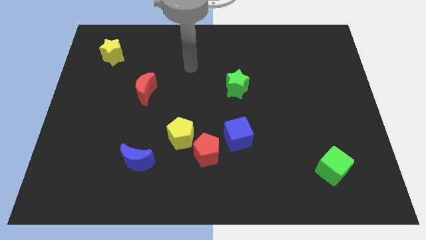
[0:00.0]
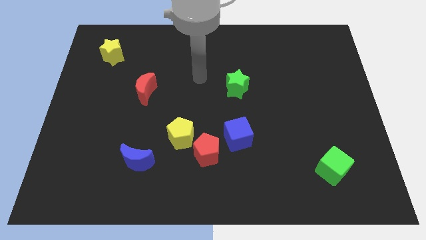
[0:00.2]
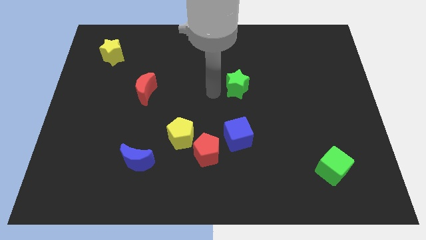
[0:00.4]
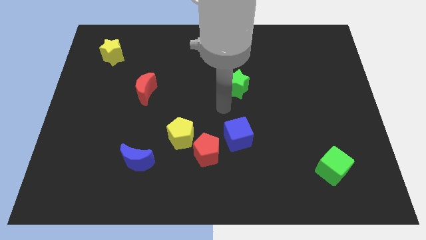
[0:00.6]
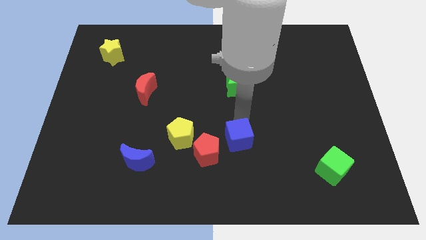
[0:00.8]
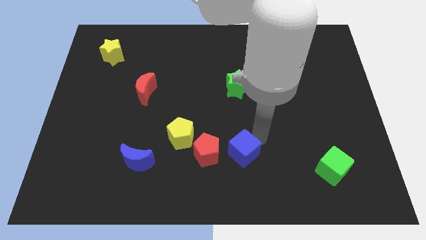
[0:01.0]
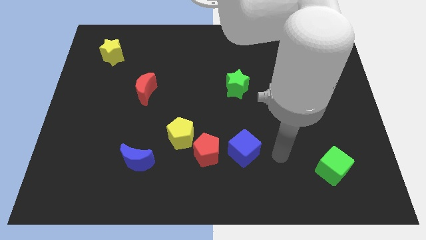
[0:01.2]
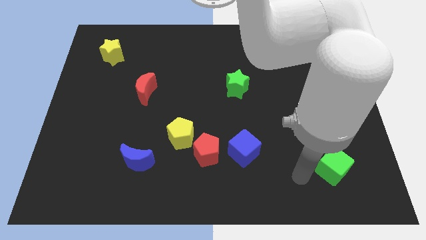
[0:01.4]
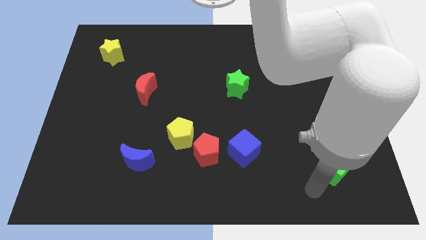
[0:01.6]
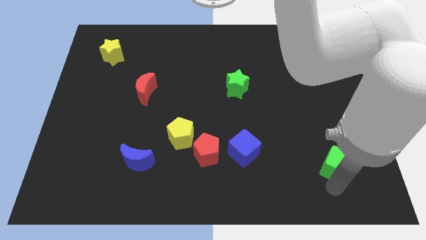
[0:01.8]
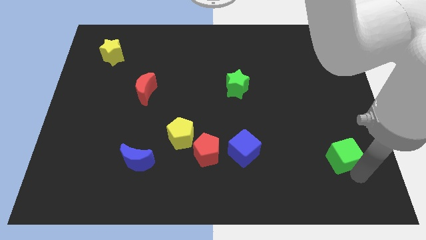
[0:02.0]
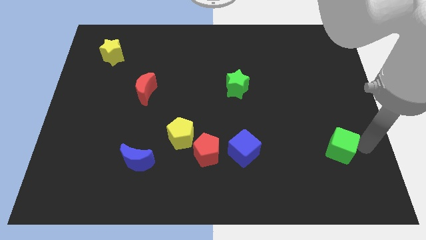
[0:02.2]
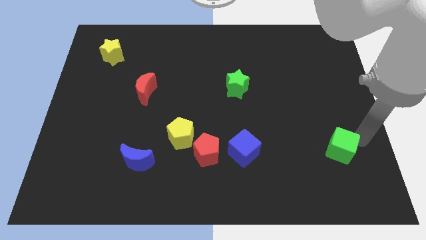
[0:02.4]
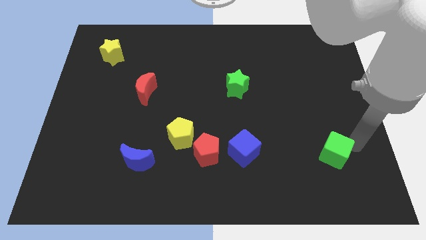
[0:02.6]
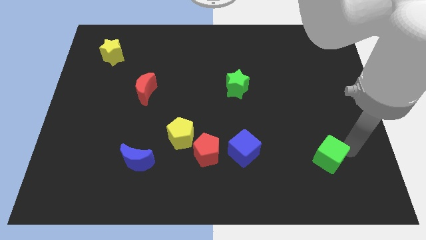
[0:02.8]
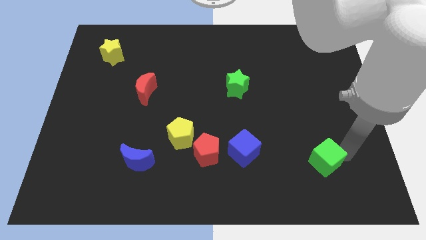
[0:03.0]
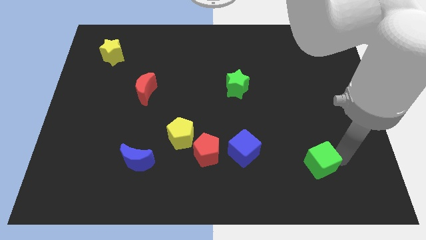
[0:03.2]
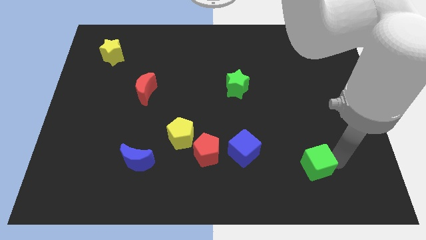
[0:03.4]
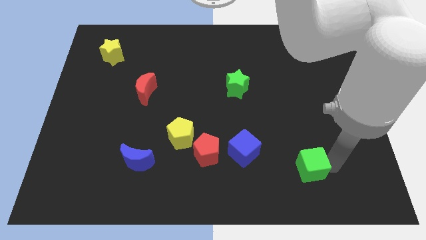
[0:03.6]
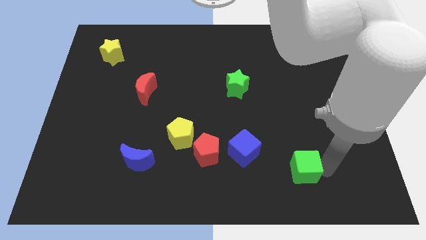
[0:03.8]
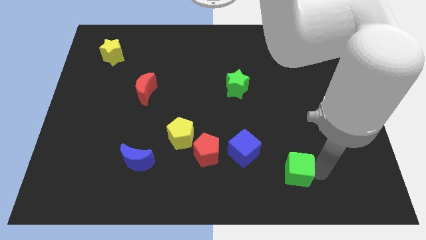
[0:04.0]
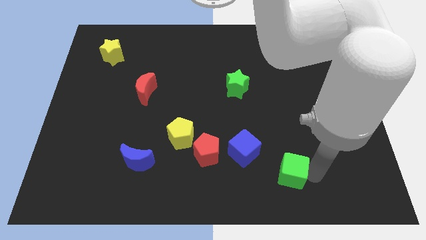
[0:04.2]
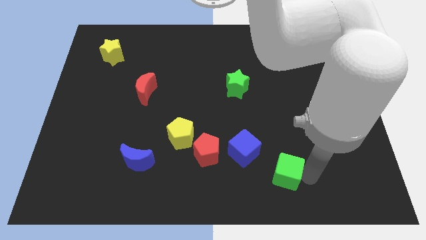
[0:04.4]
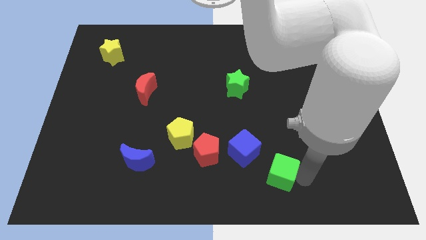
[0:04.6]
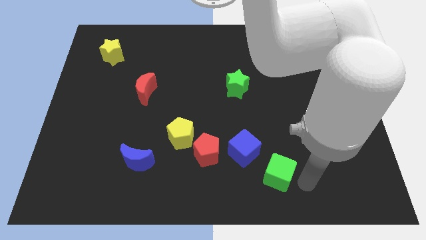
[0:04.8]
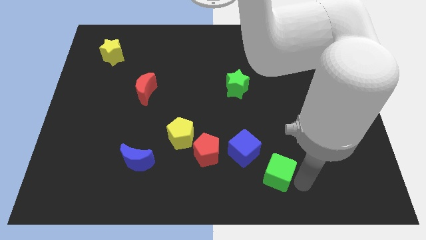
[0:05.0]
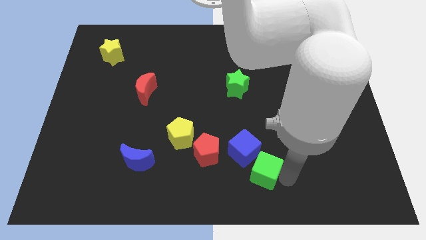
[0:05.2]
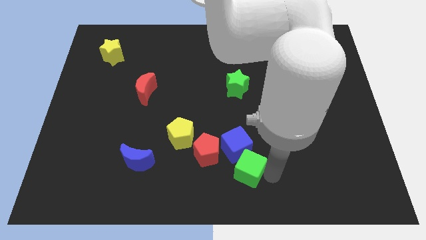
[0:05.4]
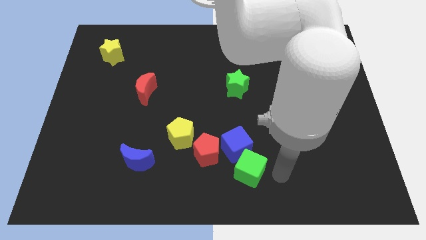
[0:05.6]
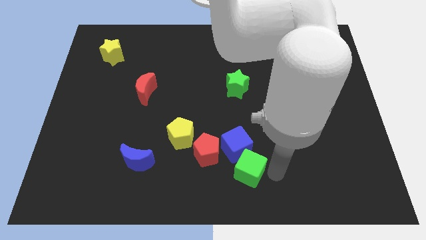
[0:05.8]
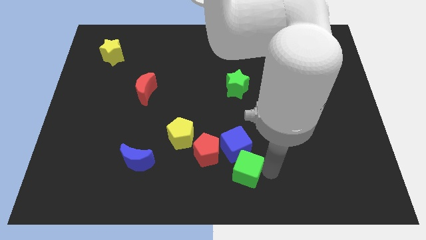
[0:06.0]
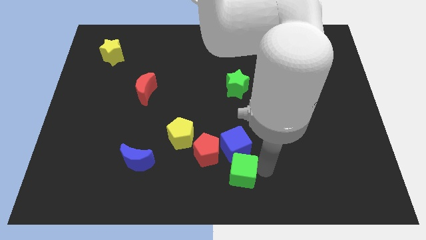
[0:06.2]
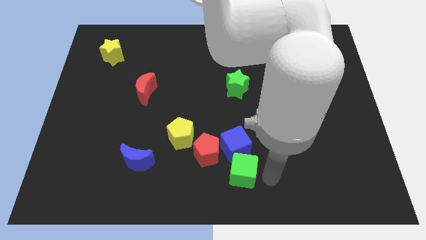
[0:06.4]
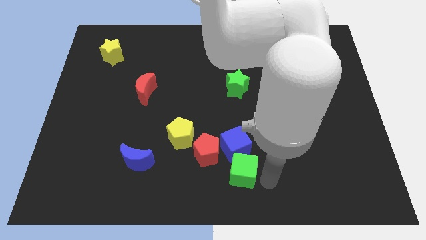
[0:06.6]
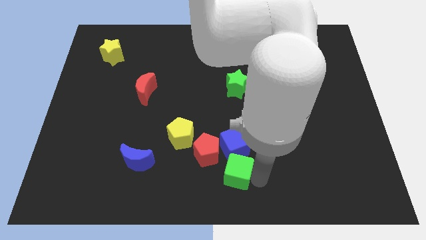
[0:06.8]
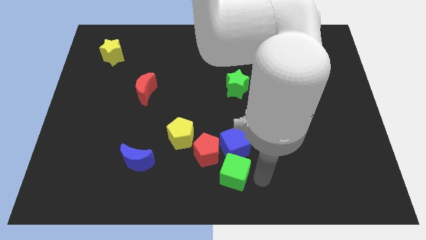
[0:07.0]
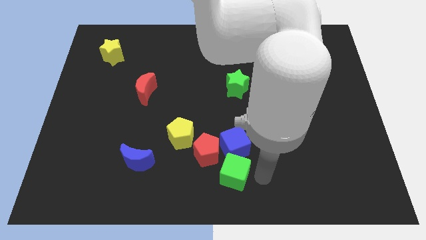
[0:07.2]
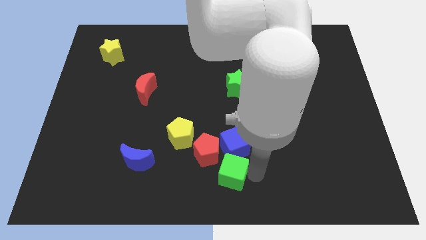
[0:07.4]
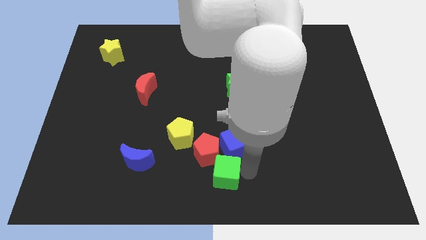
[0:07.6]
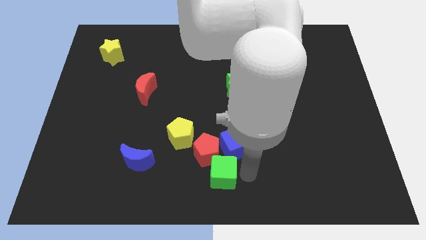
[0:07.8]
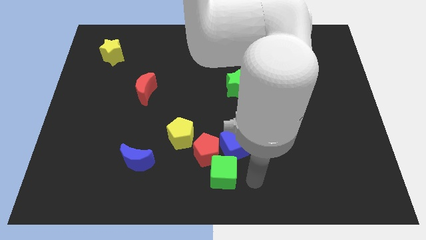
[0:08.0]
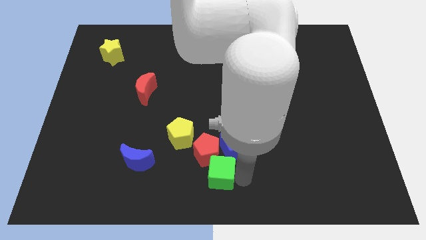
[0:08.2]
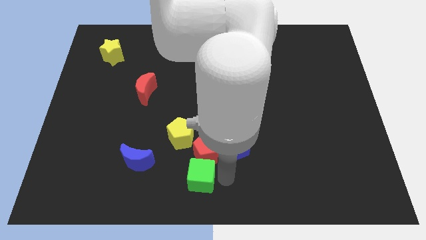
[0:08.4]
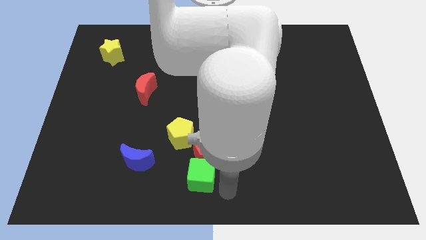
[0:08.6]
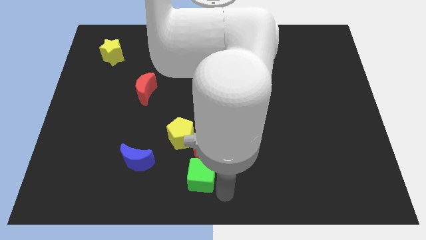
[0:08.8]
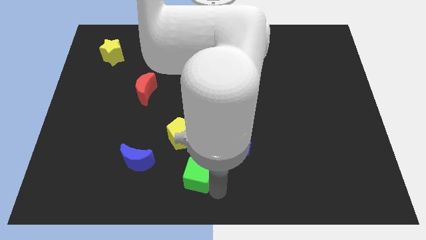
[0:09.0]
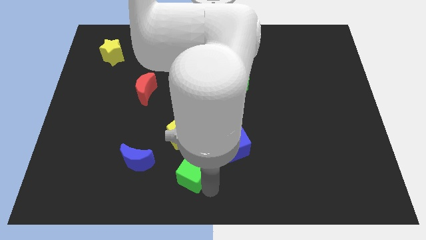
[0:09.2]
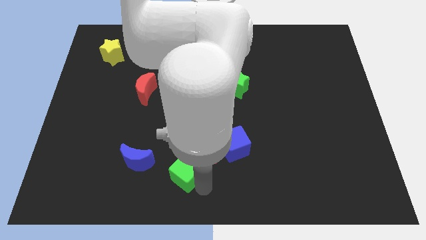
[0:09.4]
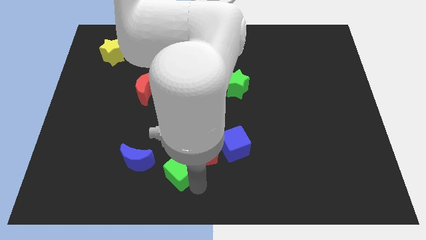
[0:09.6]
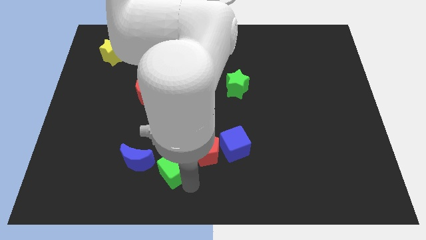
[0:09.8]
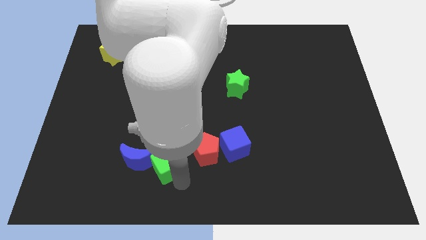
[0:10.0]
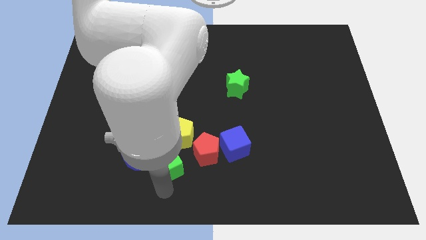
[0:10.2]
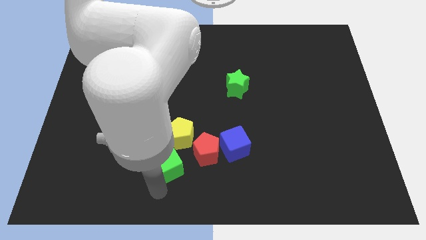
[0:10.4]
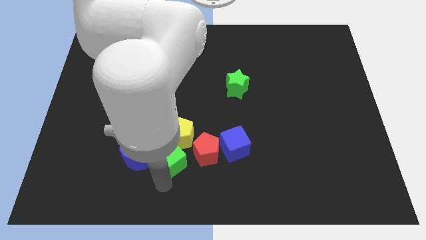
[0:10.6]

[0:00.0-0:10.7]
move the green cube towards the yellow pentagon

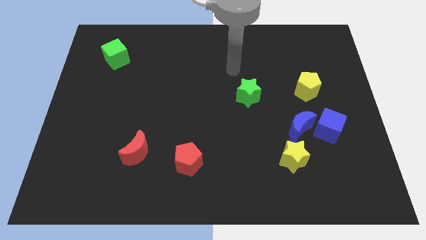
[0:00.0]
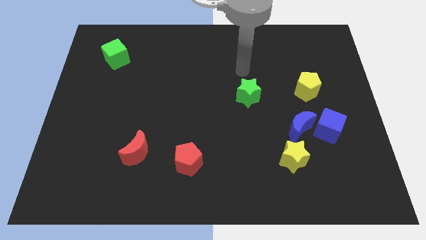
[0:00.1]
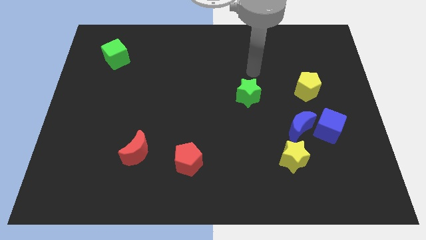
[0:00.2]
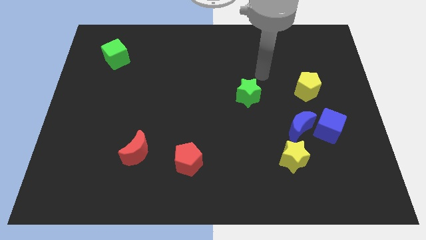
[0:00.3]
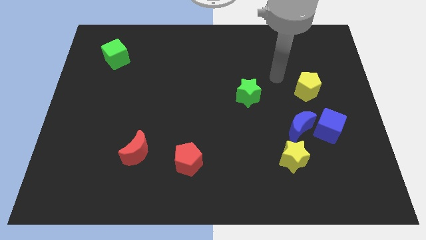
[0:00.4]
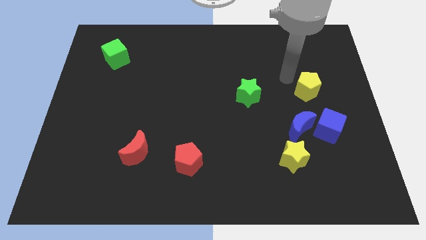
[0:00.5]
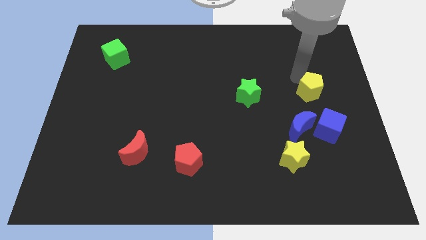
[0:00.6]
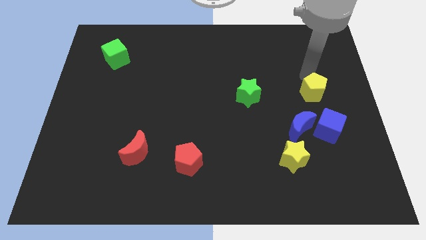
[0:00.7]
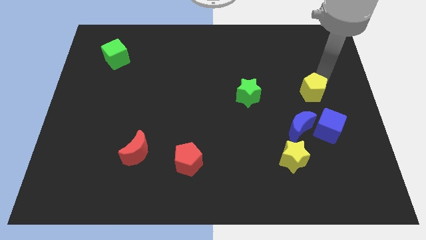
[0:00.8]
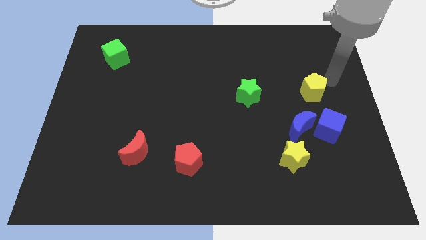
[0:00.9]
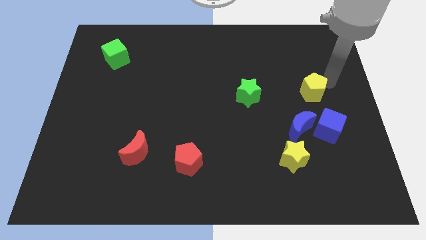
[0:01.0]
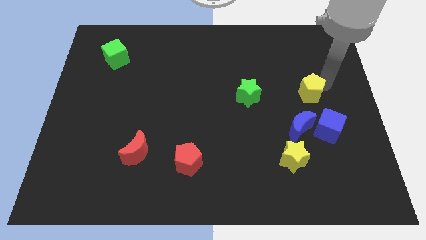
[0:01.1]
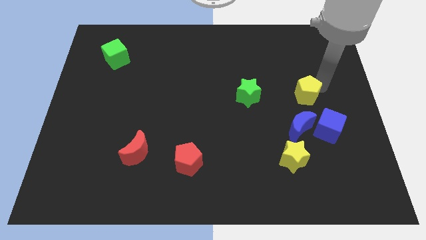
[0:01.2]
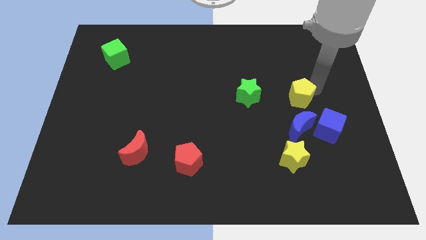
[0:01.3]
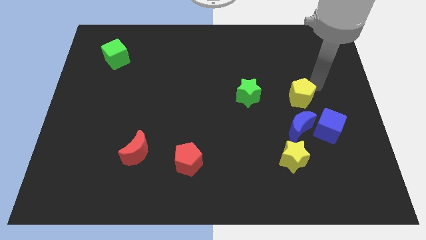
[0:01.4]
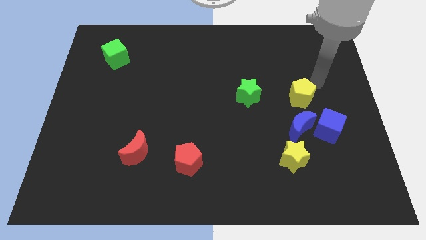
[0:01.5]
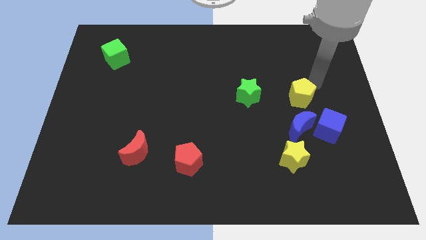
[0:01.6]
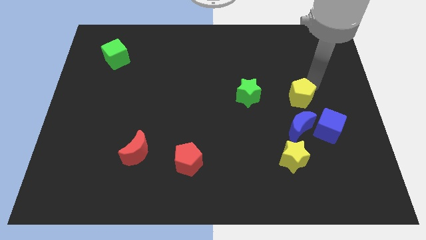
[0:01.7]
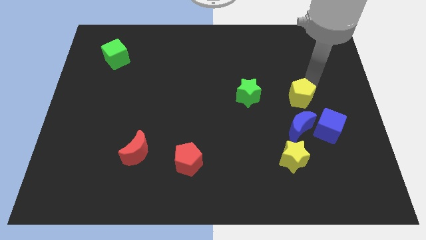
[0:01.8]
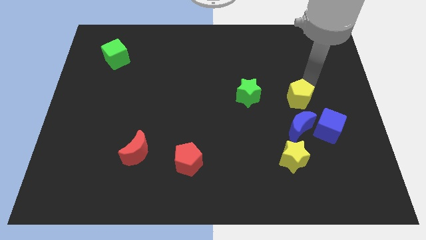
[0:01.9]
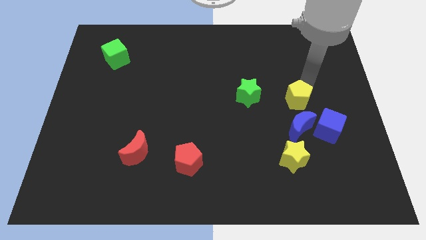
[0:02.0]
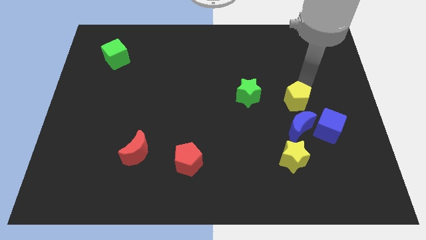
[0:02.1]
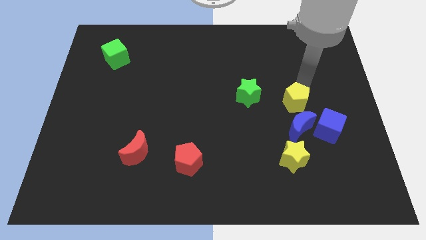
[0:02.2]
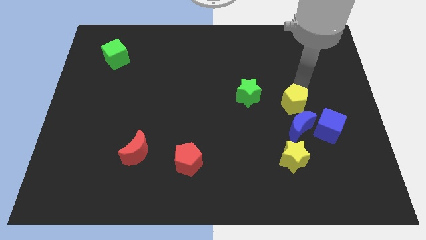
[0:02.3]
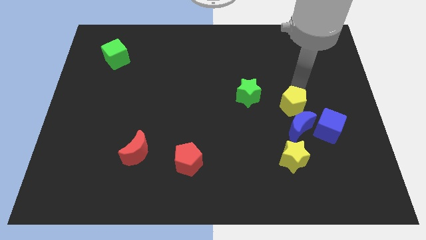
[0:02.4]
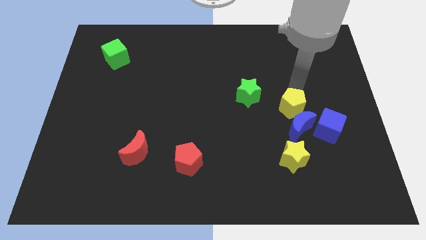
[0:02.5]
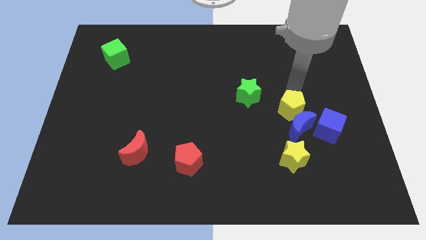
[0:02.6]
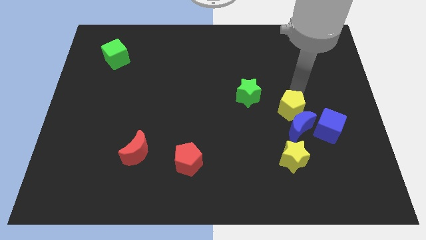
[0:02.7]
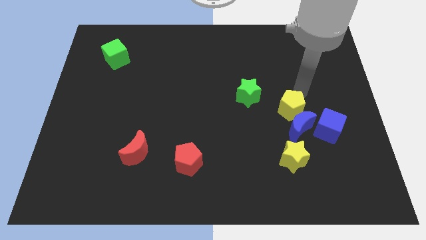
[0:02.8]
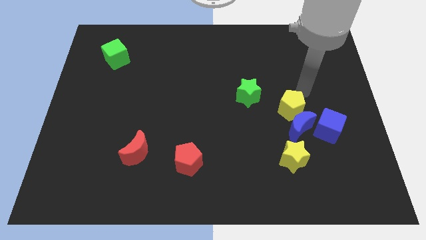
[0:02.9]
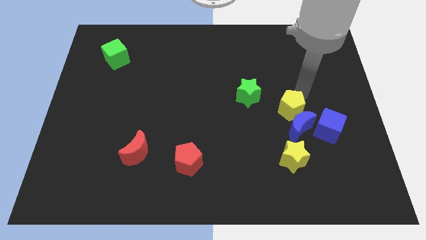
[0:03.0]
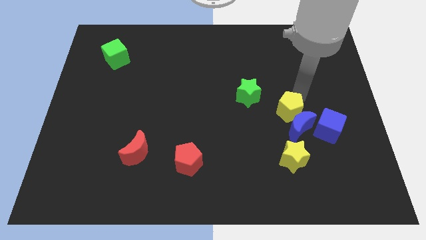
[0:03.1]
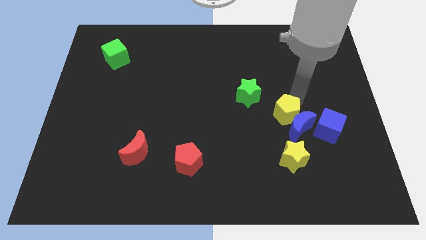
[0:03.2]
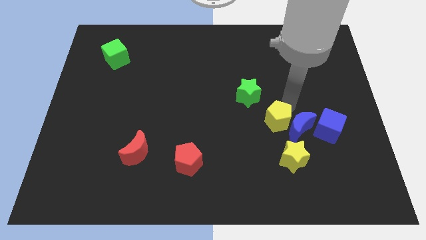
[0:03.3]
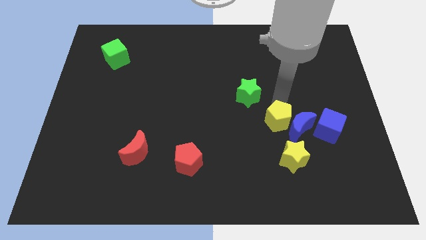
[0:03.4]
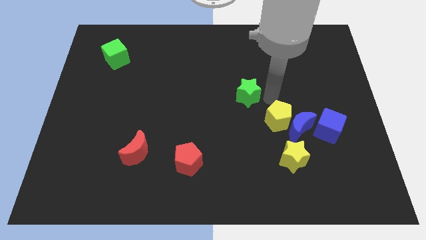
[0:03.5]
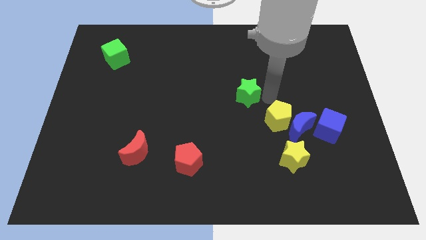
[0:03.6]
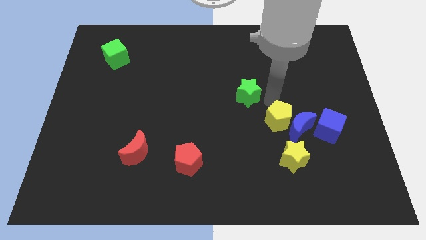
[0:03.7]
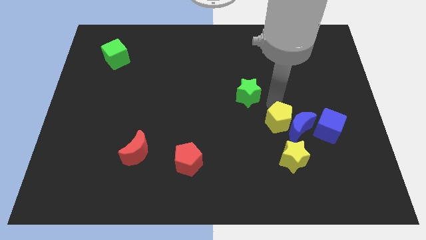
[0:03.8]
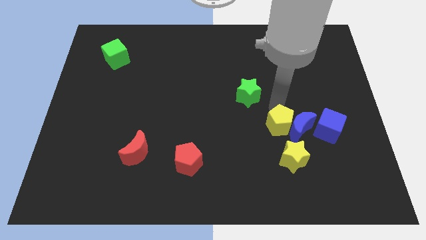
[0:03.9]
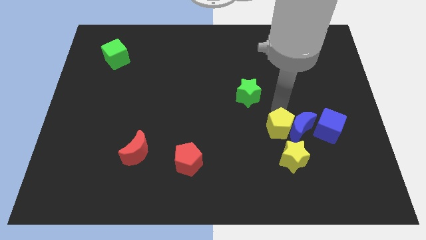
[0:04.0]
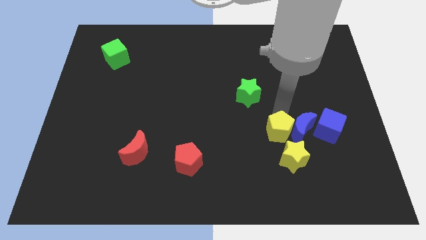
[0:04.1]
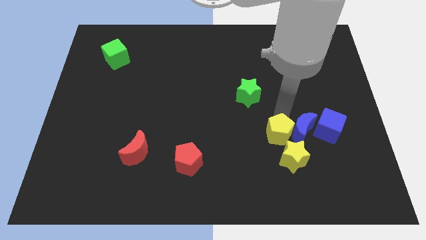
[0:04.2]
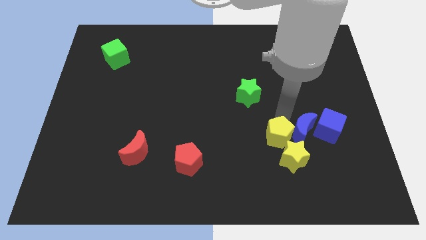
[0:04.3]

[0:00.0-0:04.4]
slide the yellow pentagon close to the yellow star
